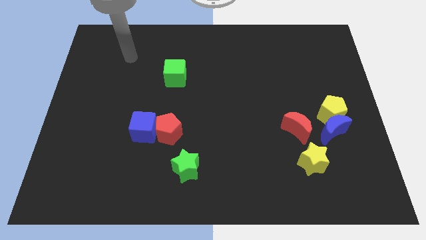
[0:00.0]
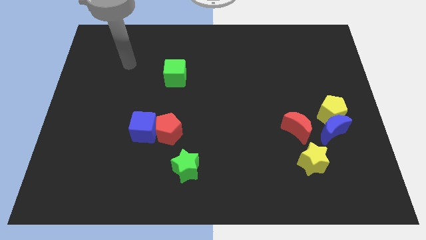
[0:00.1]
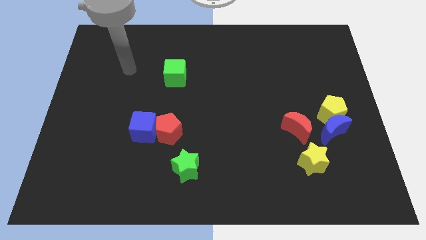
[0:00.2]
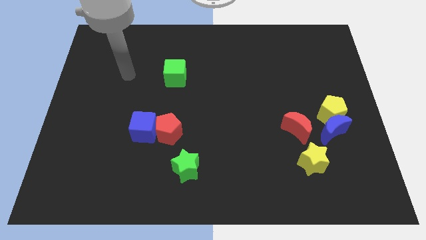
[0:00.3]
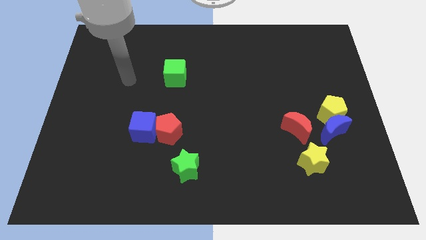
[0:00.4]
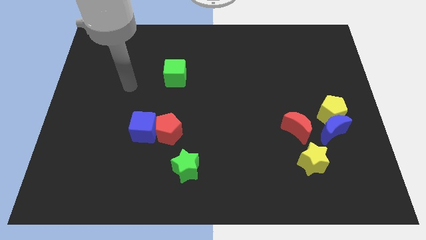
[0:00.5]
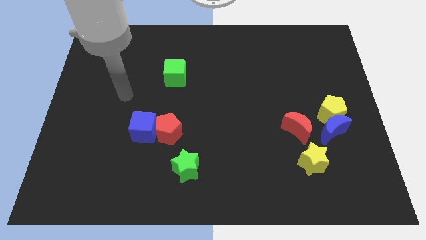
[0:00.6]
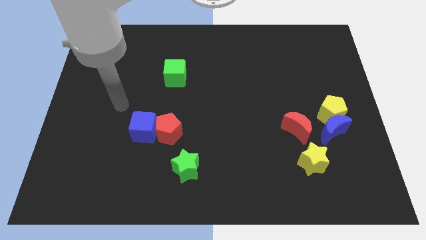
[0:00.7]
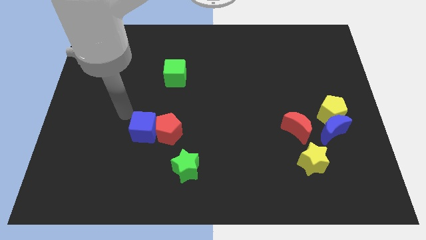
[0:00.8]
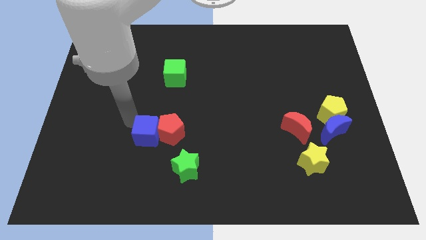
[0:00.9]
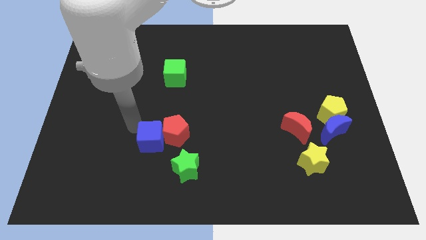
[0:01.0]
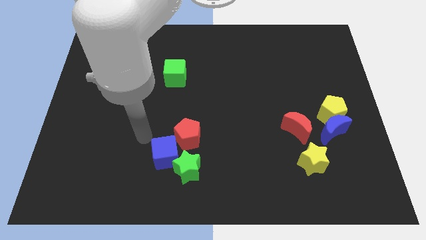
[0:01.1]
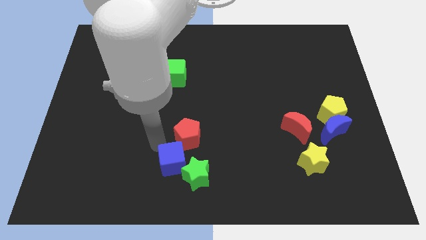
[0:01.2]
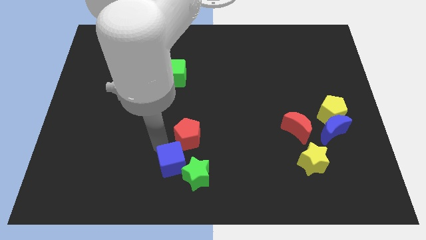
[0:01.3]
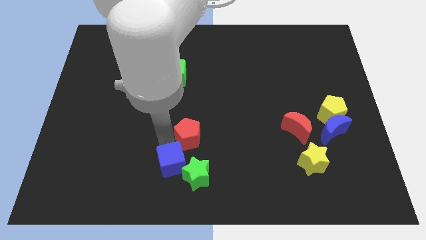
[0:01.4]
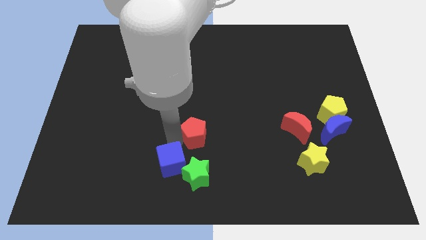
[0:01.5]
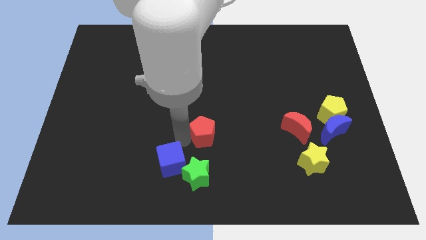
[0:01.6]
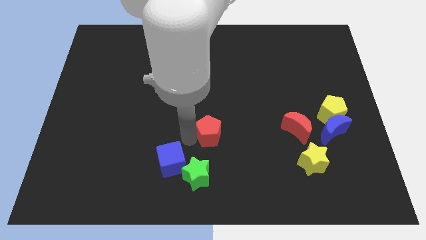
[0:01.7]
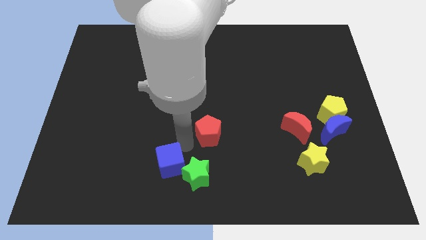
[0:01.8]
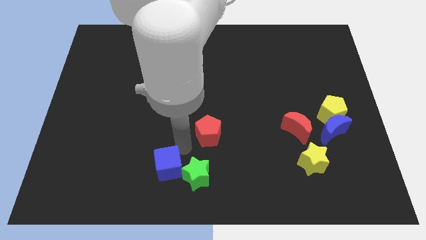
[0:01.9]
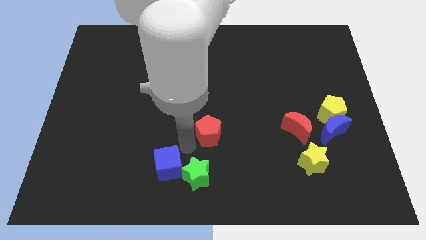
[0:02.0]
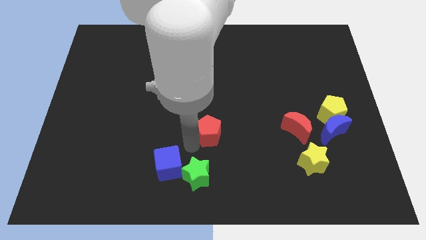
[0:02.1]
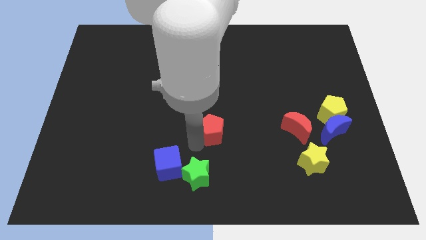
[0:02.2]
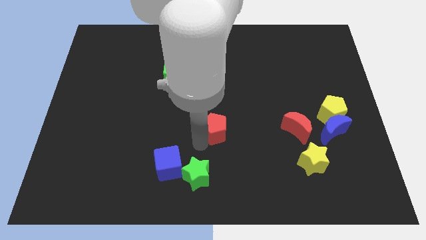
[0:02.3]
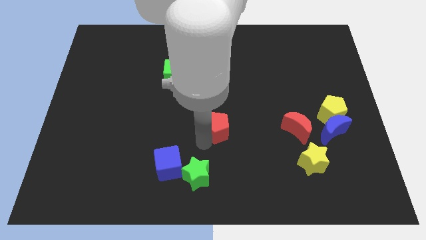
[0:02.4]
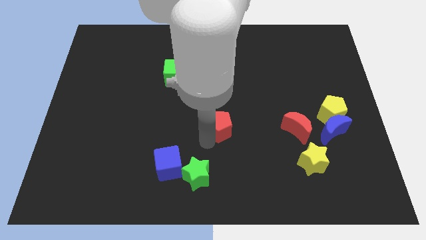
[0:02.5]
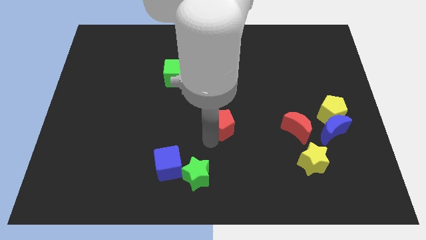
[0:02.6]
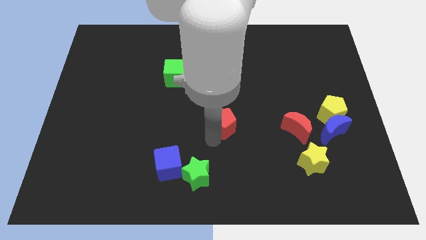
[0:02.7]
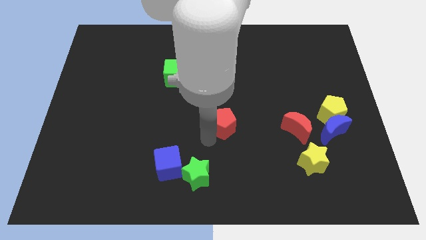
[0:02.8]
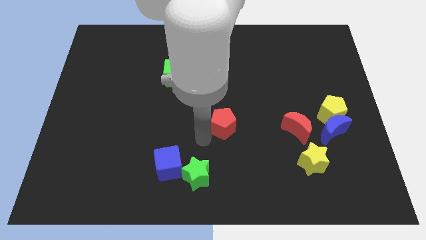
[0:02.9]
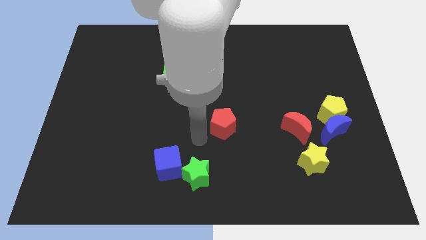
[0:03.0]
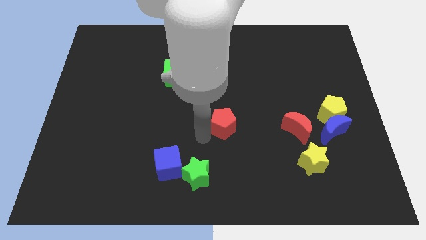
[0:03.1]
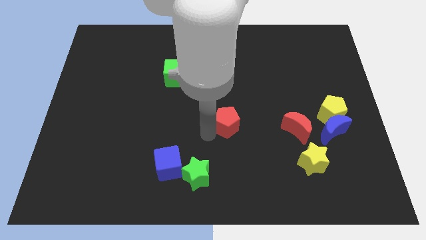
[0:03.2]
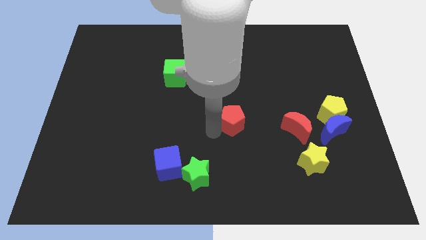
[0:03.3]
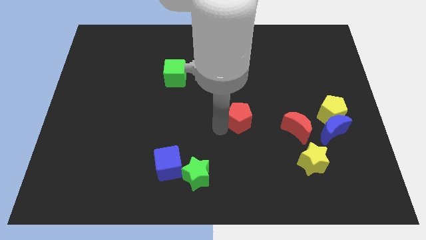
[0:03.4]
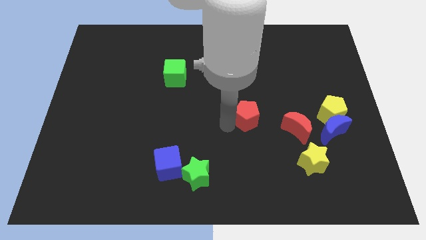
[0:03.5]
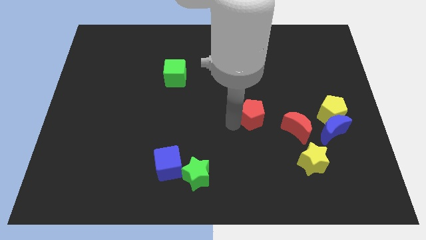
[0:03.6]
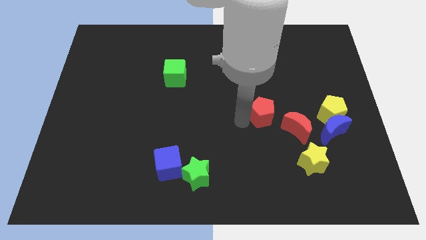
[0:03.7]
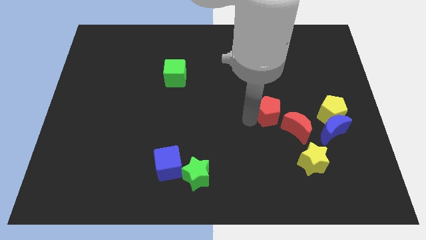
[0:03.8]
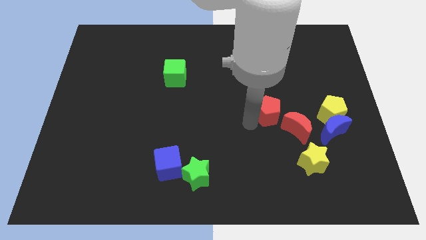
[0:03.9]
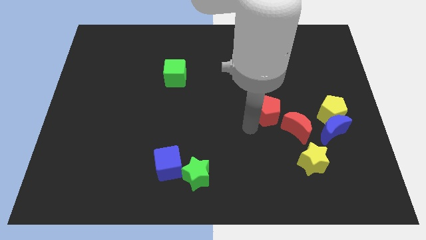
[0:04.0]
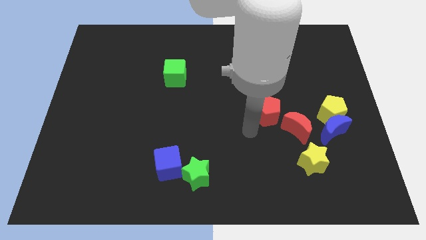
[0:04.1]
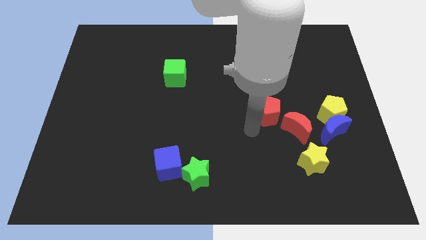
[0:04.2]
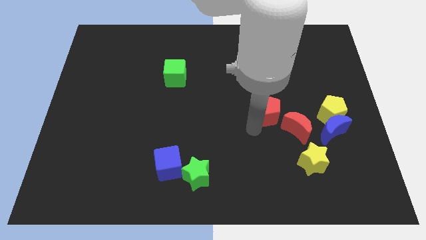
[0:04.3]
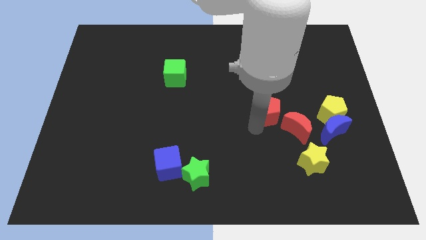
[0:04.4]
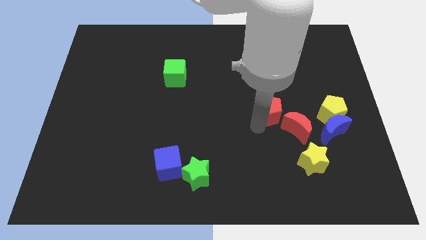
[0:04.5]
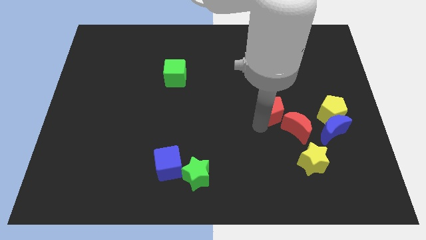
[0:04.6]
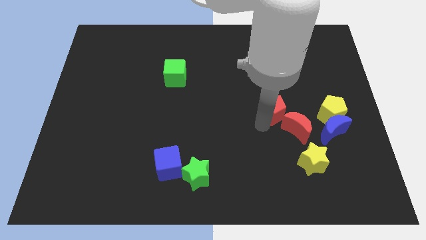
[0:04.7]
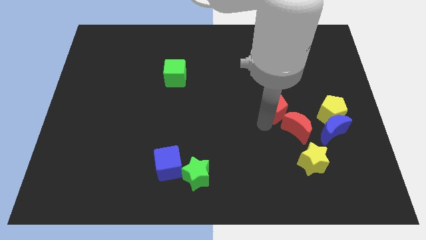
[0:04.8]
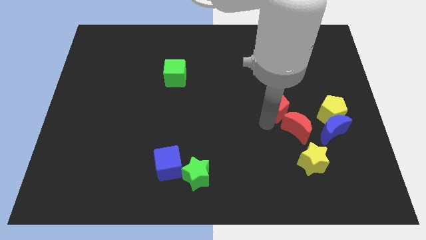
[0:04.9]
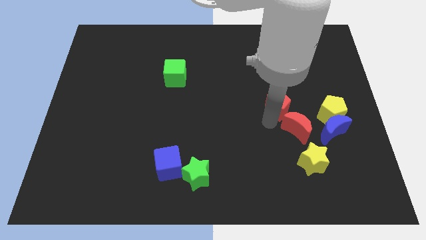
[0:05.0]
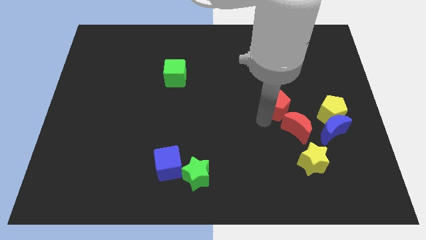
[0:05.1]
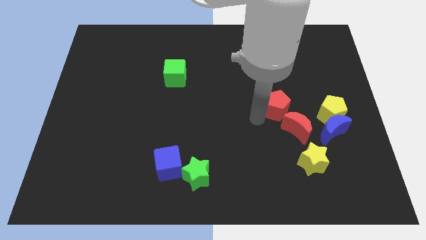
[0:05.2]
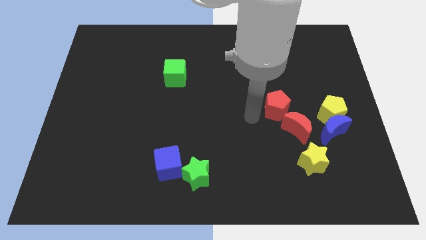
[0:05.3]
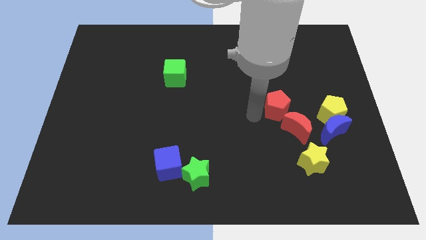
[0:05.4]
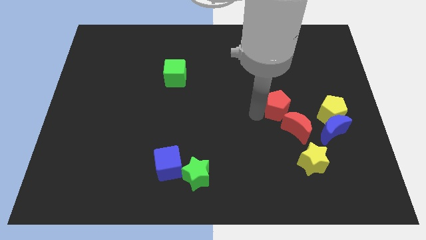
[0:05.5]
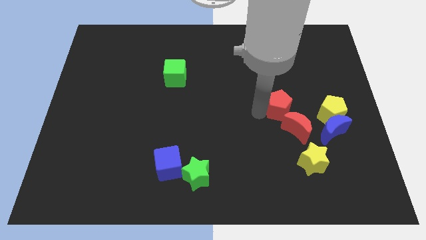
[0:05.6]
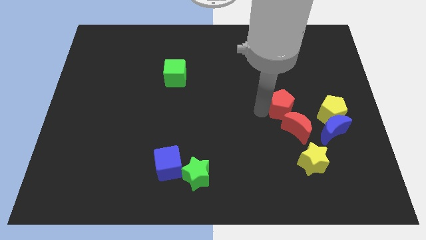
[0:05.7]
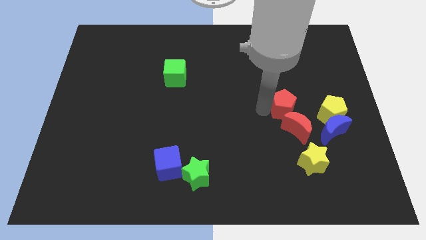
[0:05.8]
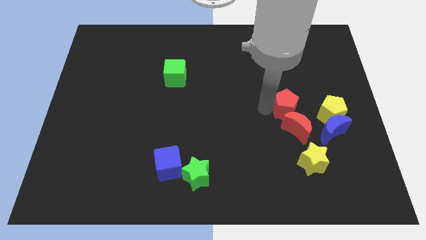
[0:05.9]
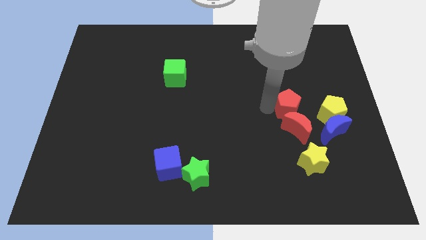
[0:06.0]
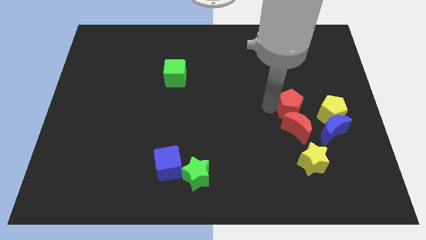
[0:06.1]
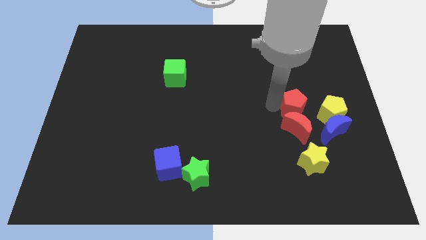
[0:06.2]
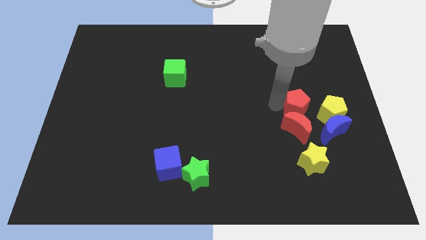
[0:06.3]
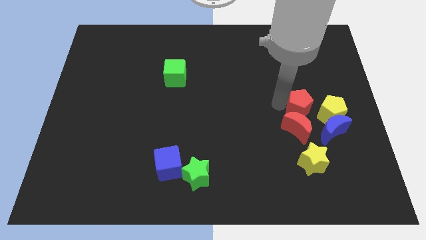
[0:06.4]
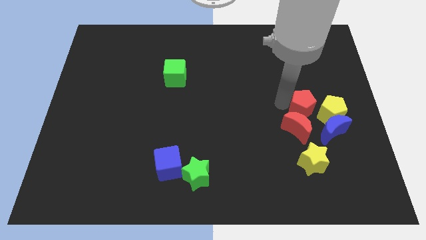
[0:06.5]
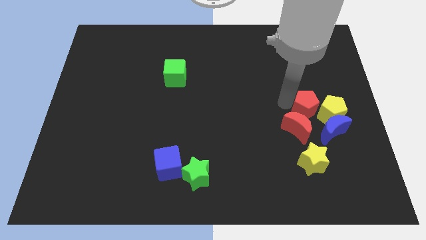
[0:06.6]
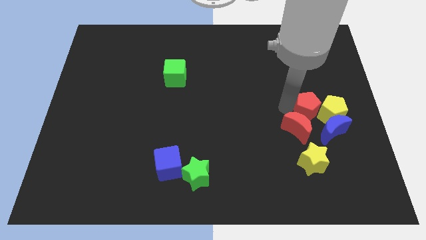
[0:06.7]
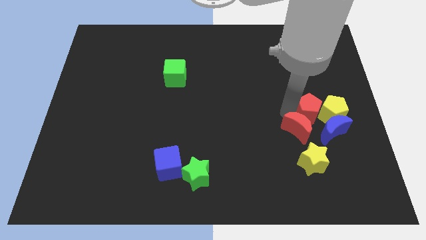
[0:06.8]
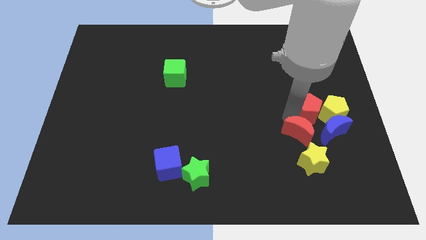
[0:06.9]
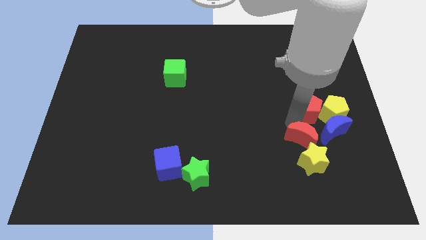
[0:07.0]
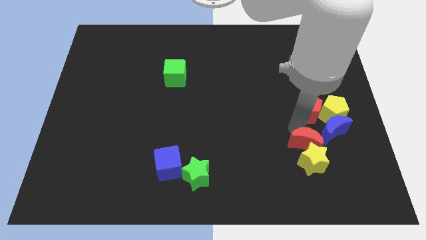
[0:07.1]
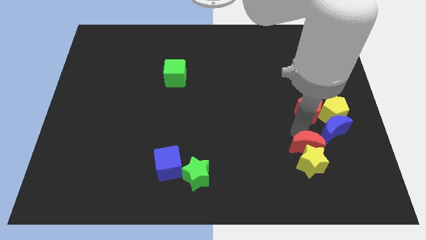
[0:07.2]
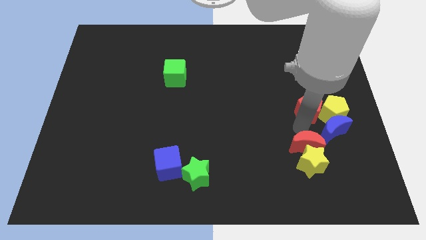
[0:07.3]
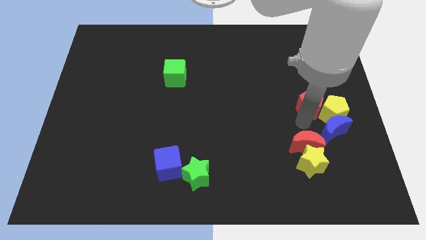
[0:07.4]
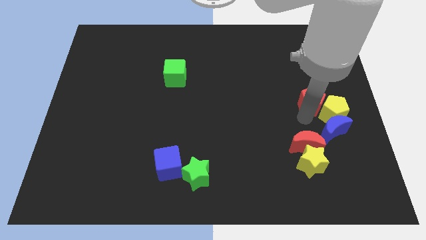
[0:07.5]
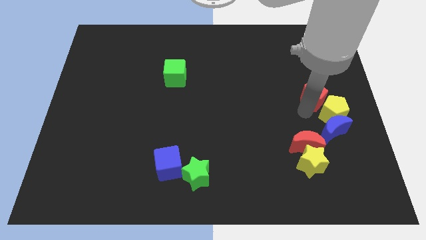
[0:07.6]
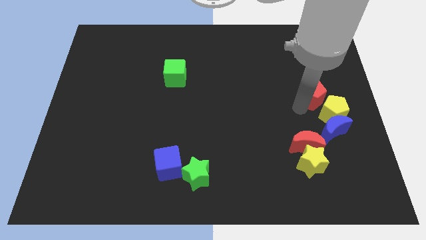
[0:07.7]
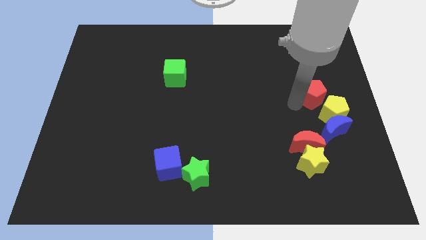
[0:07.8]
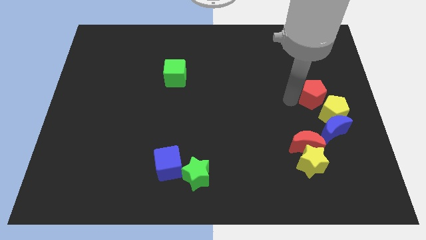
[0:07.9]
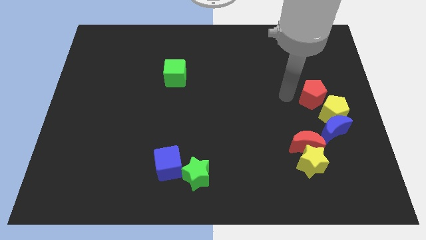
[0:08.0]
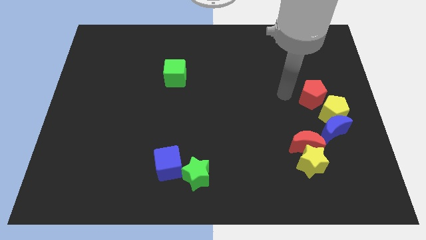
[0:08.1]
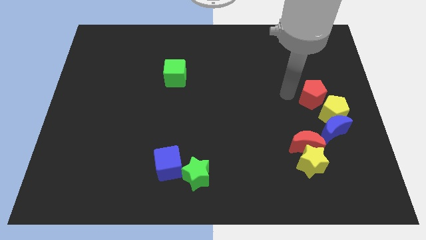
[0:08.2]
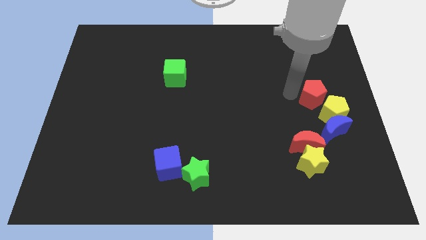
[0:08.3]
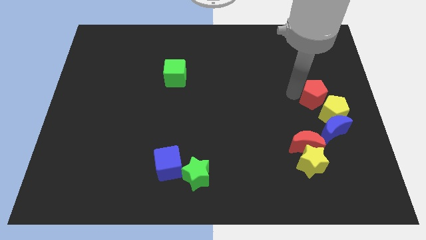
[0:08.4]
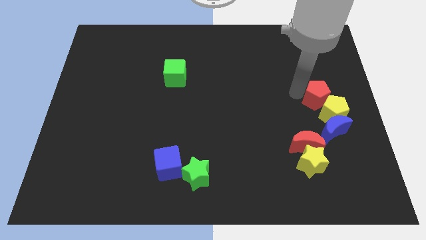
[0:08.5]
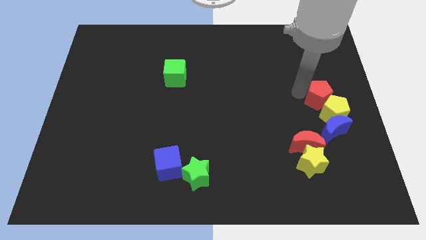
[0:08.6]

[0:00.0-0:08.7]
push the red pentagon to the right side
